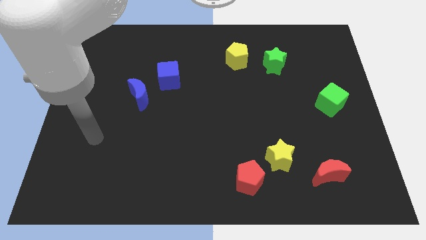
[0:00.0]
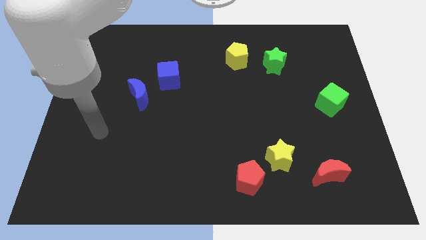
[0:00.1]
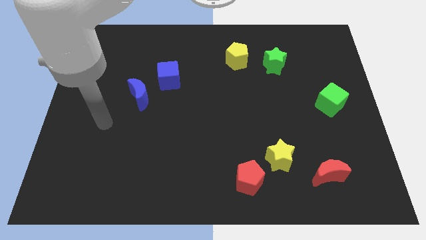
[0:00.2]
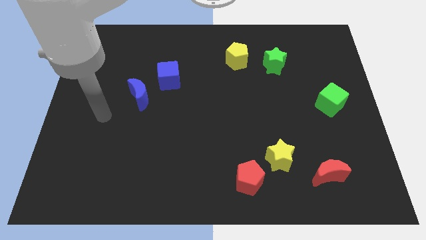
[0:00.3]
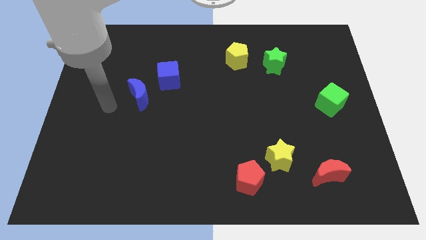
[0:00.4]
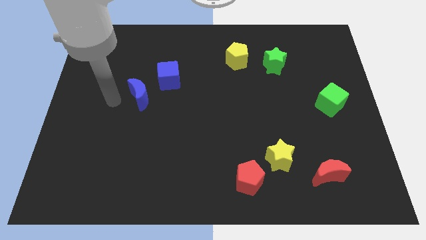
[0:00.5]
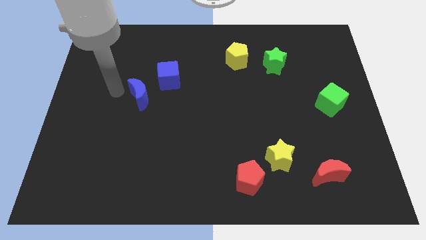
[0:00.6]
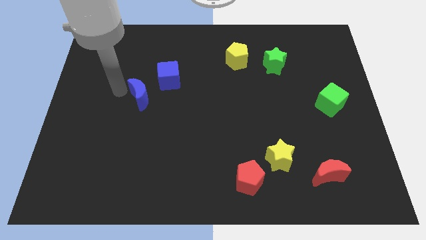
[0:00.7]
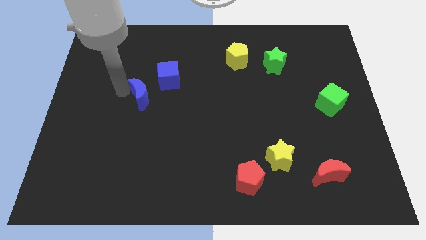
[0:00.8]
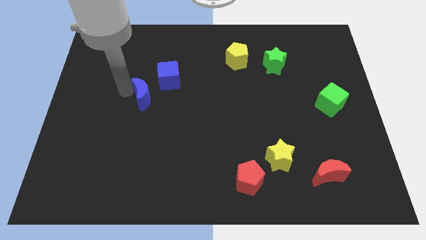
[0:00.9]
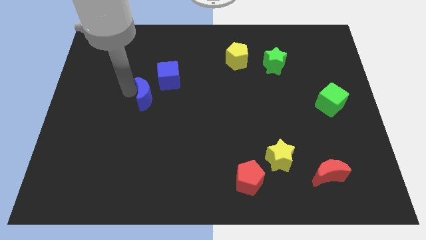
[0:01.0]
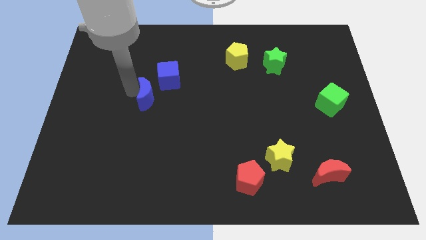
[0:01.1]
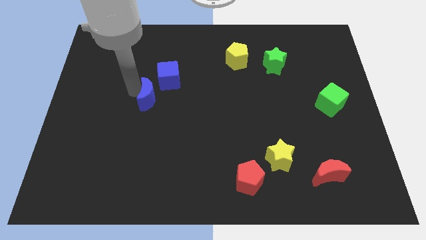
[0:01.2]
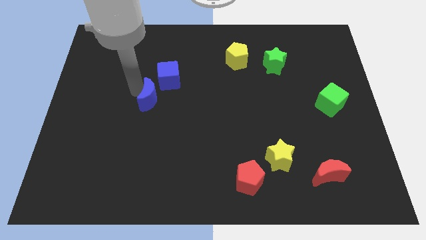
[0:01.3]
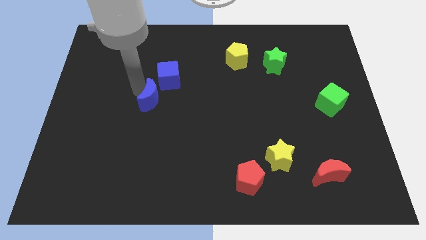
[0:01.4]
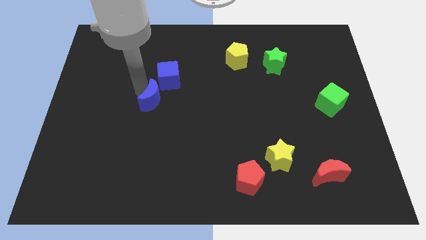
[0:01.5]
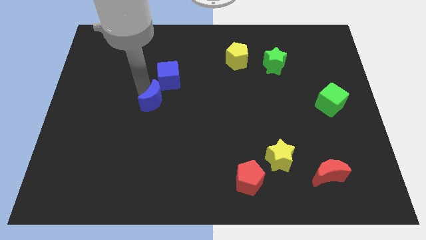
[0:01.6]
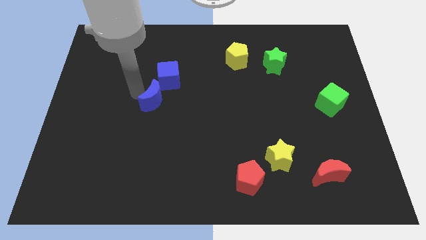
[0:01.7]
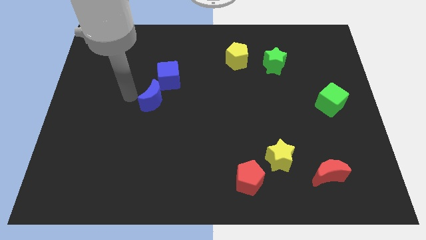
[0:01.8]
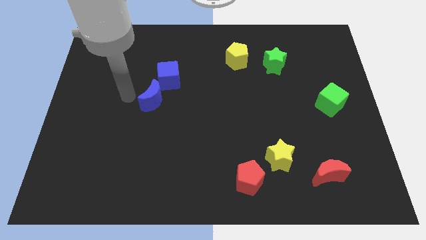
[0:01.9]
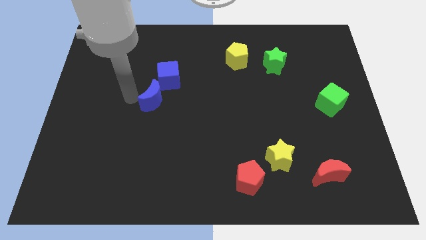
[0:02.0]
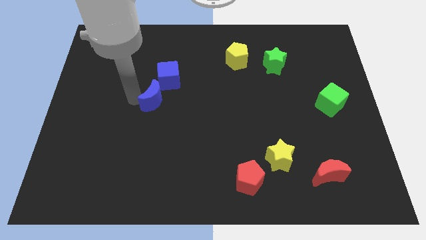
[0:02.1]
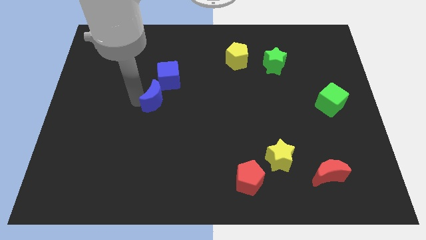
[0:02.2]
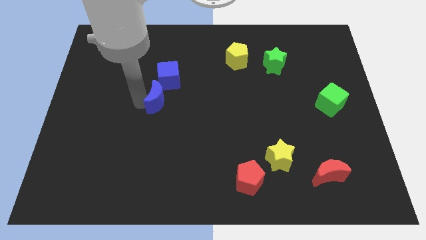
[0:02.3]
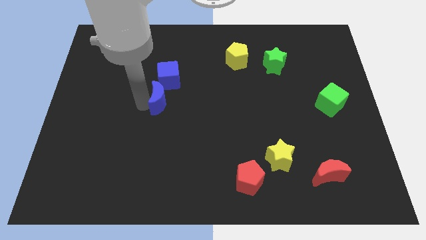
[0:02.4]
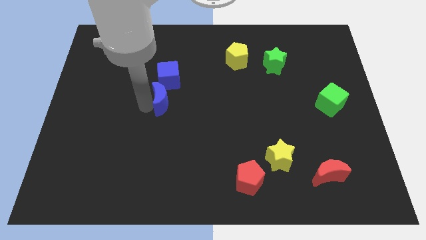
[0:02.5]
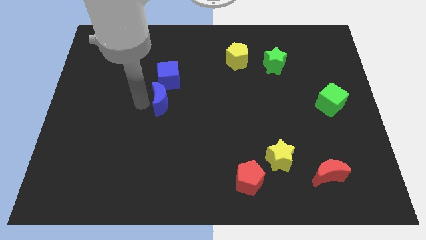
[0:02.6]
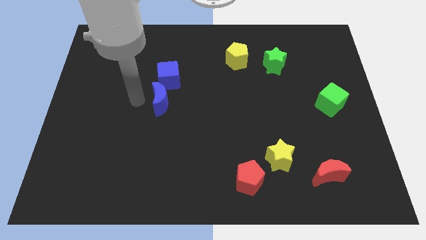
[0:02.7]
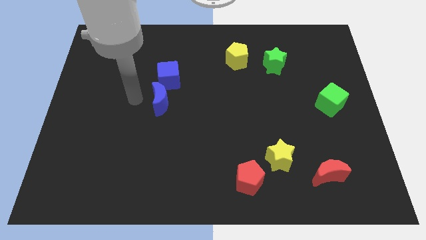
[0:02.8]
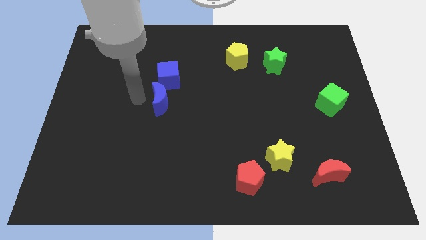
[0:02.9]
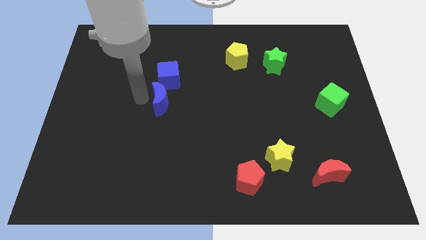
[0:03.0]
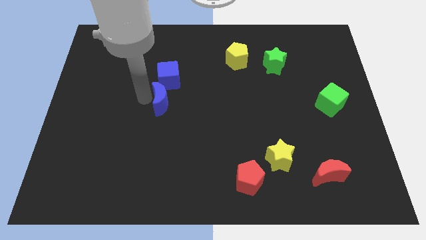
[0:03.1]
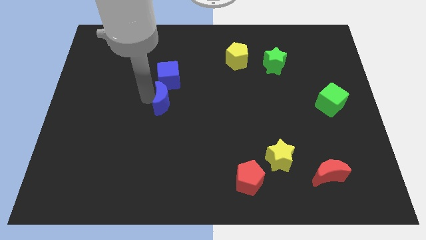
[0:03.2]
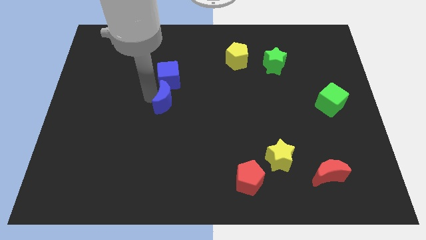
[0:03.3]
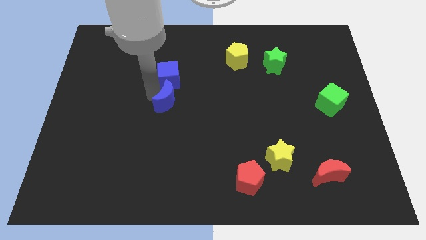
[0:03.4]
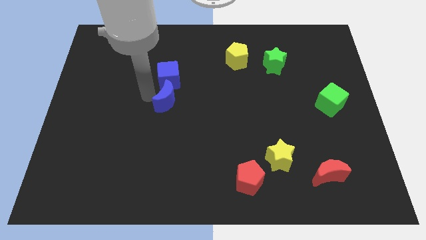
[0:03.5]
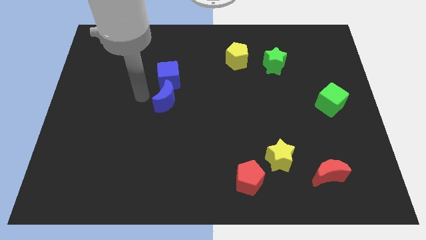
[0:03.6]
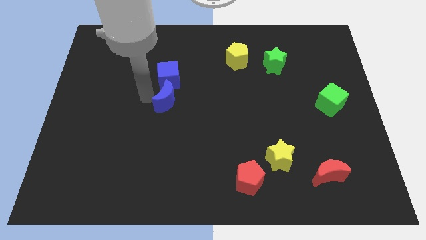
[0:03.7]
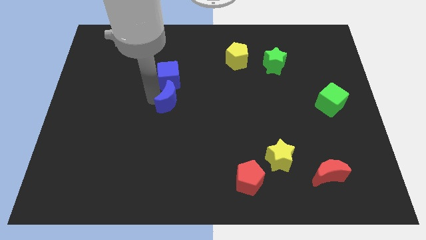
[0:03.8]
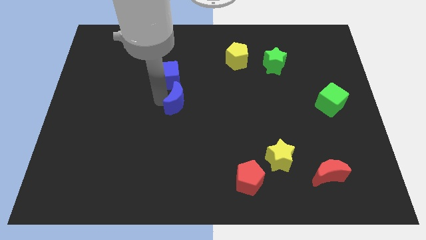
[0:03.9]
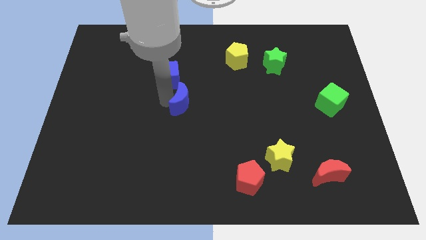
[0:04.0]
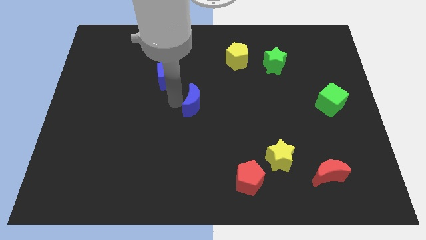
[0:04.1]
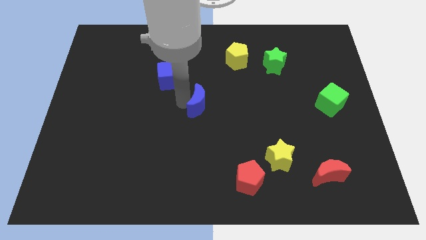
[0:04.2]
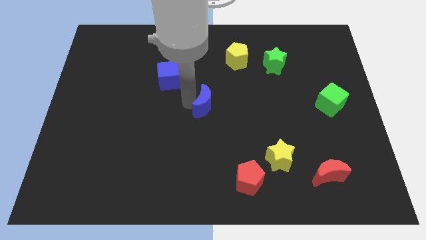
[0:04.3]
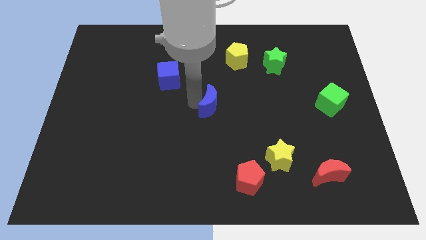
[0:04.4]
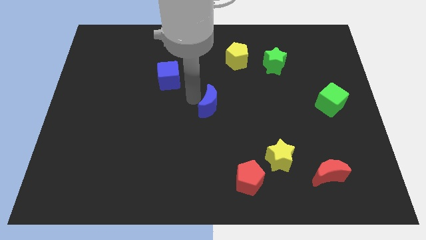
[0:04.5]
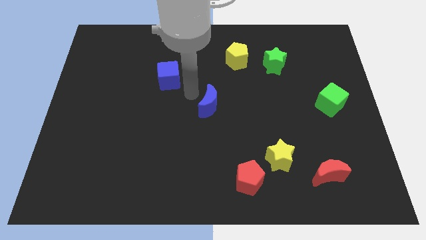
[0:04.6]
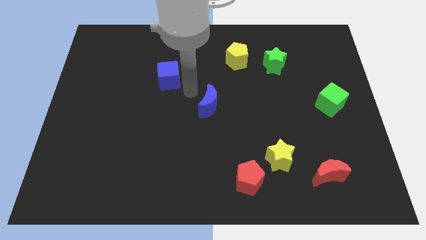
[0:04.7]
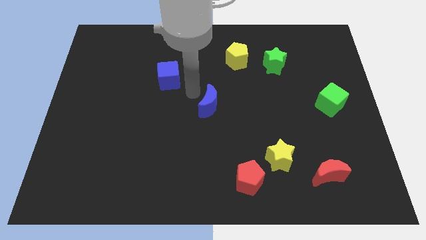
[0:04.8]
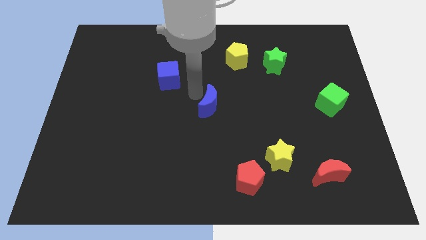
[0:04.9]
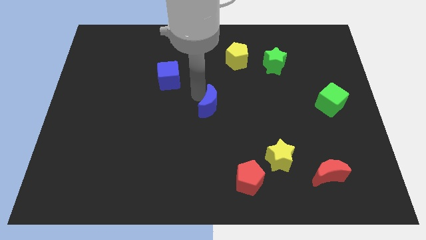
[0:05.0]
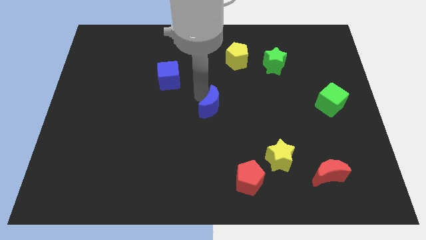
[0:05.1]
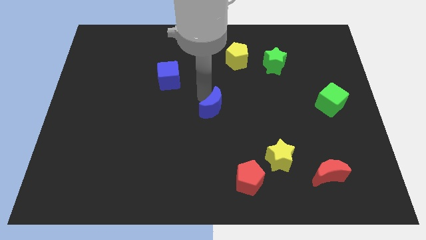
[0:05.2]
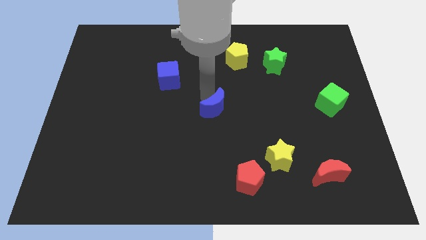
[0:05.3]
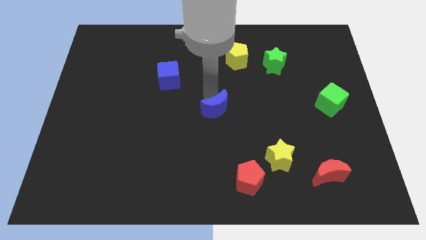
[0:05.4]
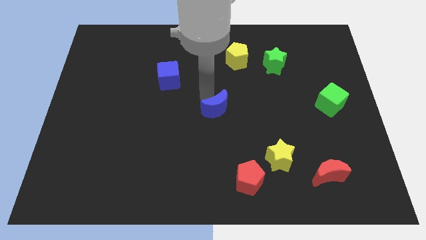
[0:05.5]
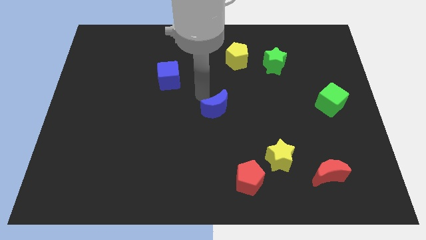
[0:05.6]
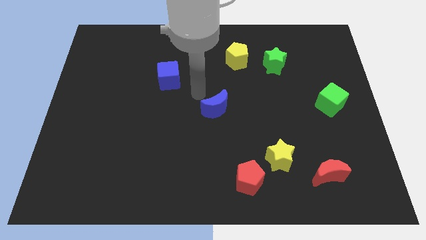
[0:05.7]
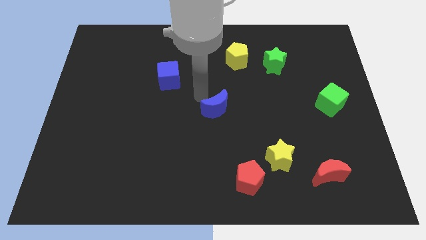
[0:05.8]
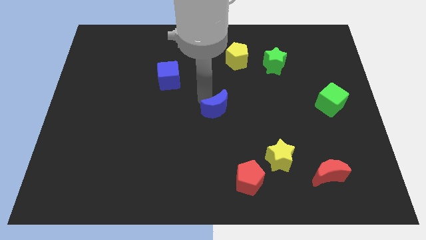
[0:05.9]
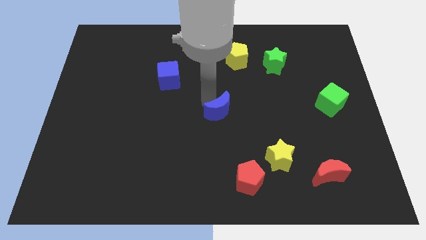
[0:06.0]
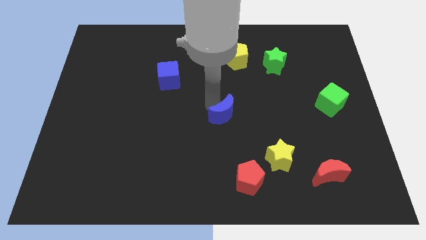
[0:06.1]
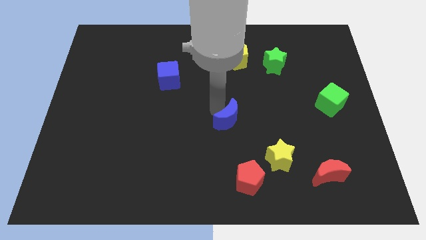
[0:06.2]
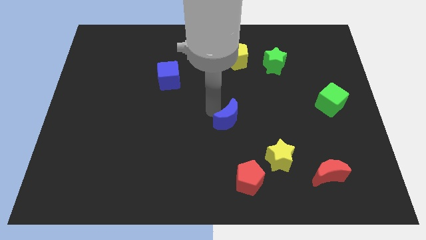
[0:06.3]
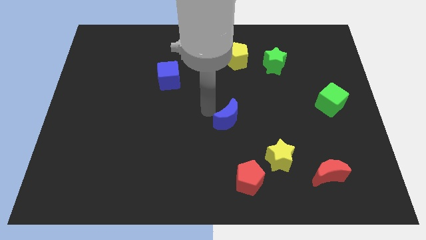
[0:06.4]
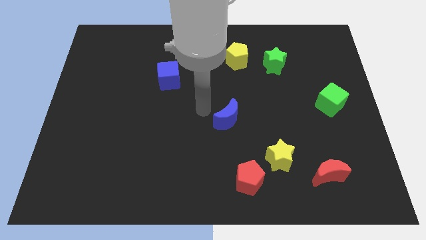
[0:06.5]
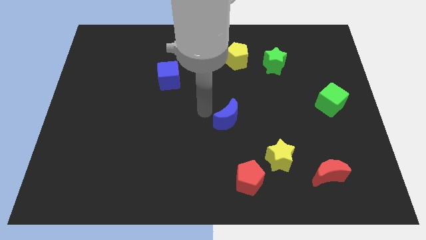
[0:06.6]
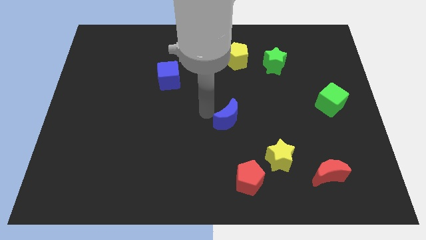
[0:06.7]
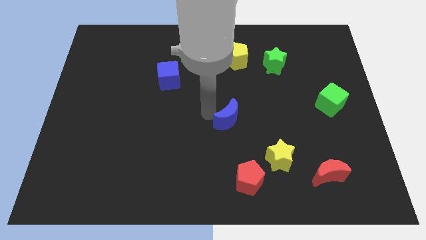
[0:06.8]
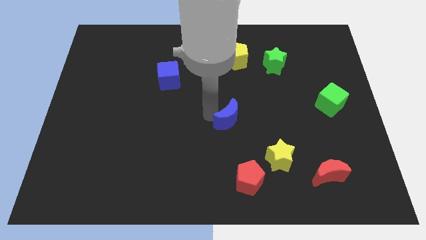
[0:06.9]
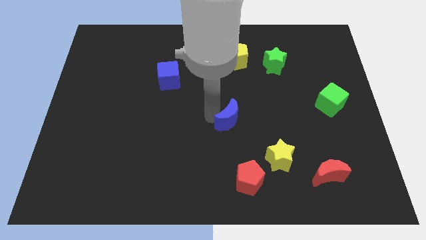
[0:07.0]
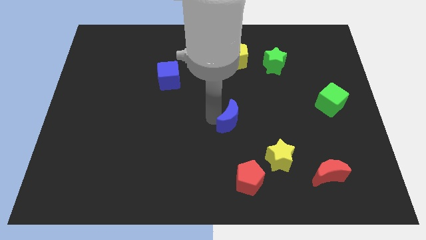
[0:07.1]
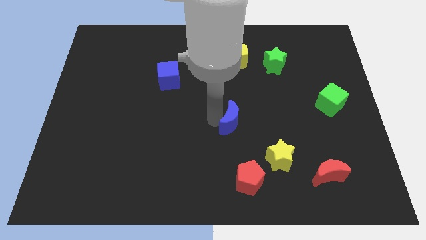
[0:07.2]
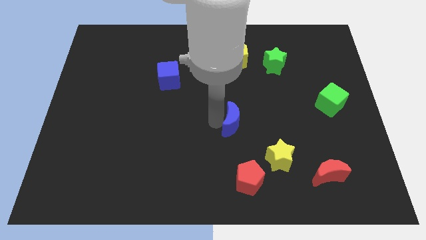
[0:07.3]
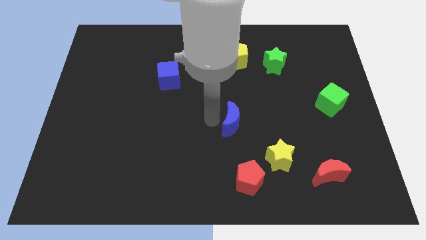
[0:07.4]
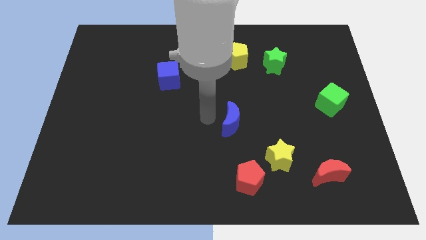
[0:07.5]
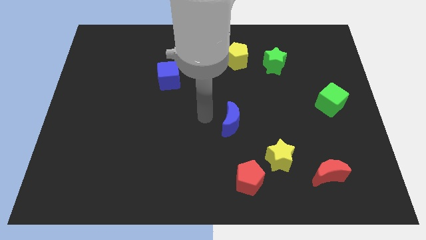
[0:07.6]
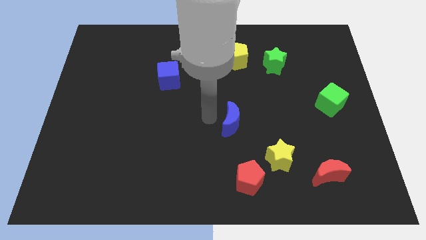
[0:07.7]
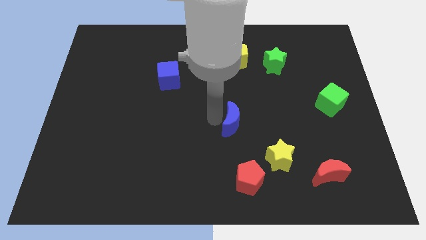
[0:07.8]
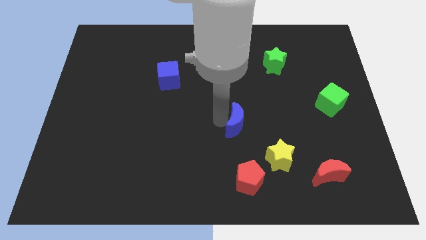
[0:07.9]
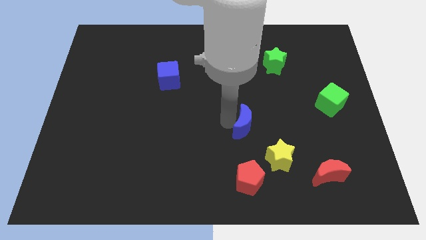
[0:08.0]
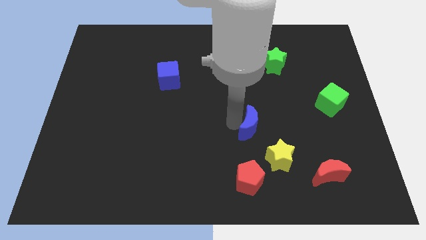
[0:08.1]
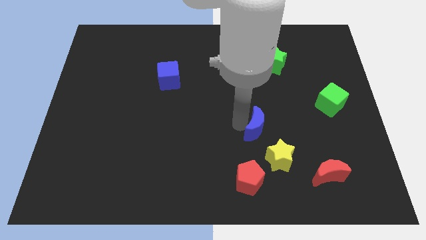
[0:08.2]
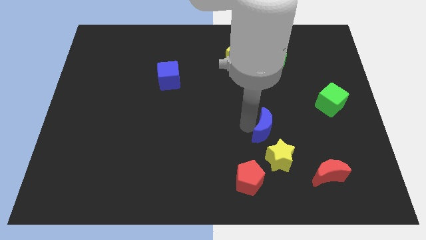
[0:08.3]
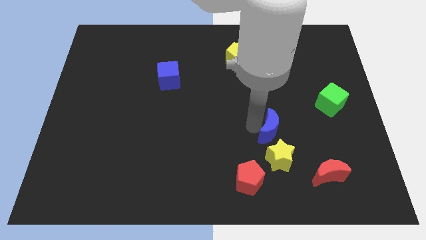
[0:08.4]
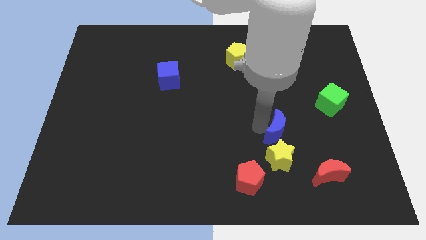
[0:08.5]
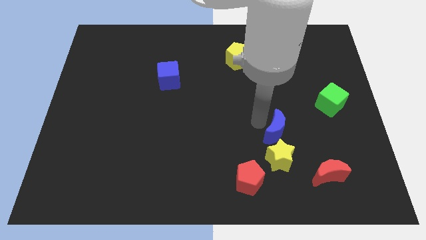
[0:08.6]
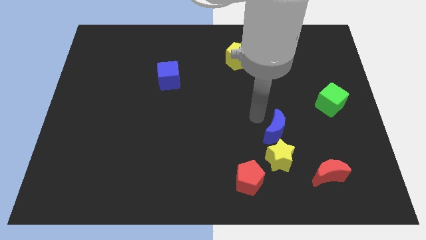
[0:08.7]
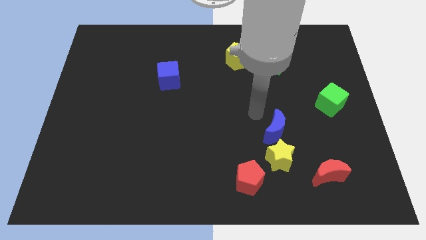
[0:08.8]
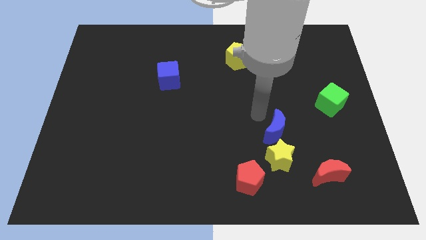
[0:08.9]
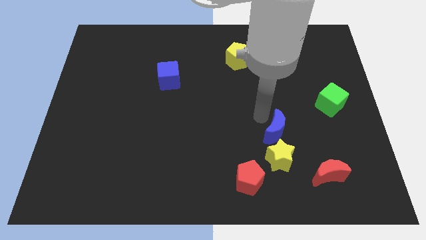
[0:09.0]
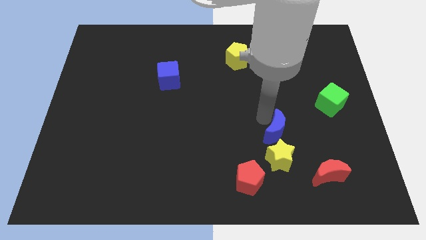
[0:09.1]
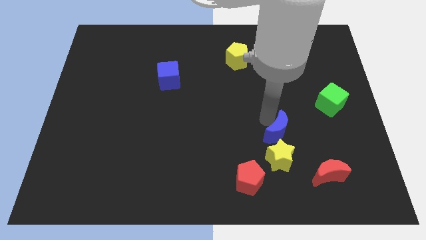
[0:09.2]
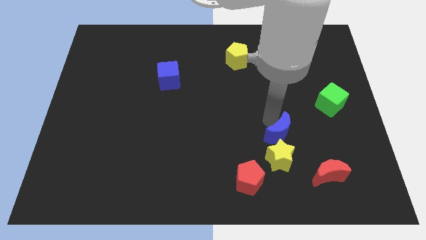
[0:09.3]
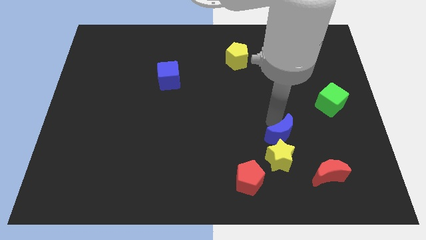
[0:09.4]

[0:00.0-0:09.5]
put the blue moon to the top left of the red moon
